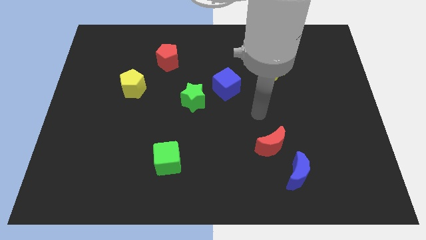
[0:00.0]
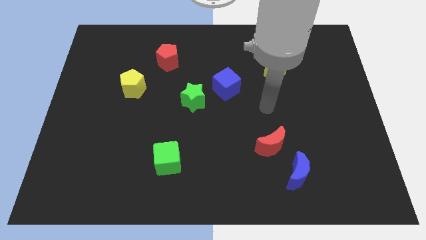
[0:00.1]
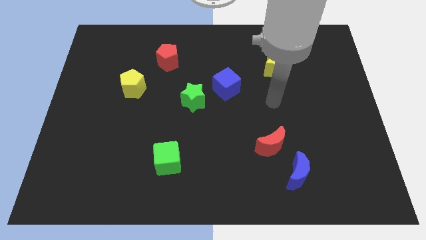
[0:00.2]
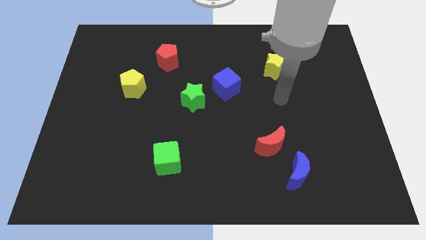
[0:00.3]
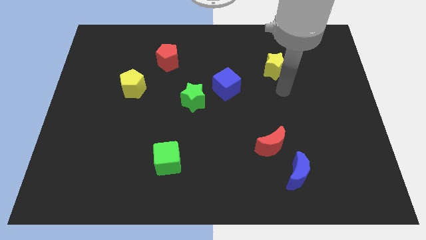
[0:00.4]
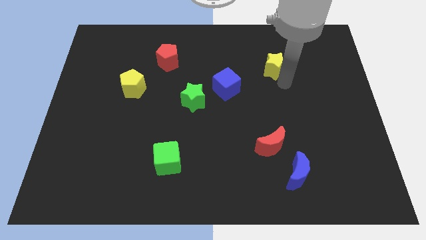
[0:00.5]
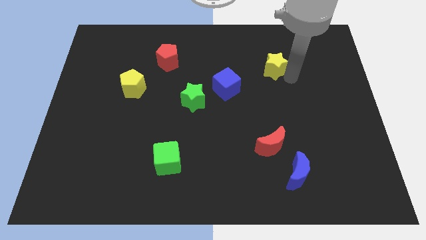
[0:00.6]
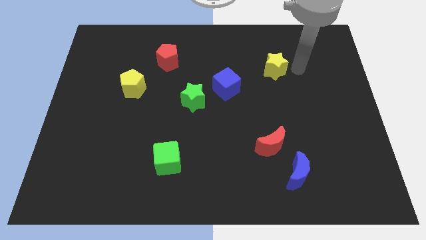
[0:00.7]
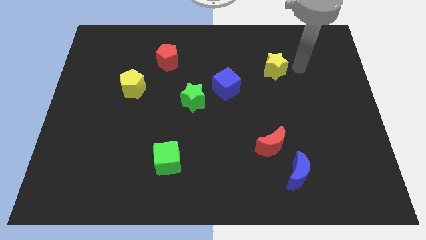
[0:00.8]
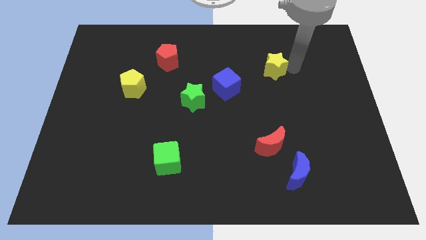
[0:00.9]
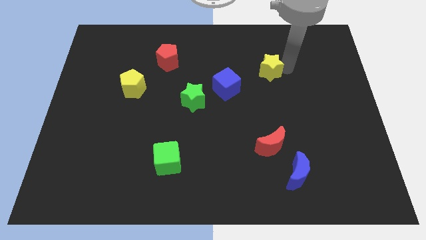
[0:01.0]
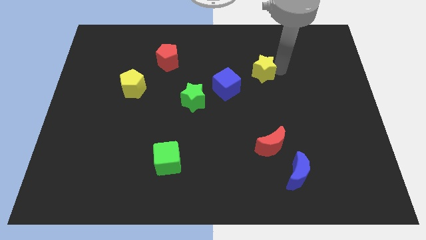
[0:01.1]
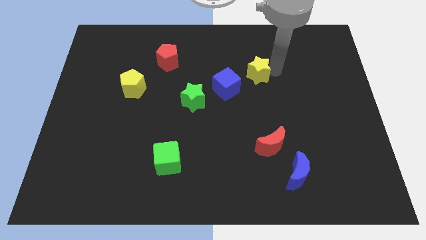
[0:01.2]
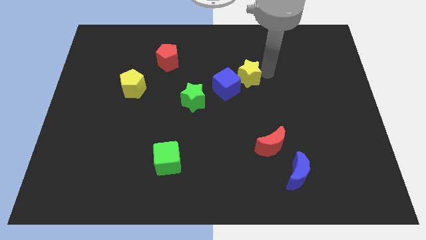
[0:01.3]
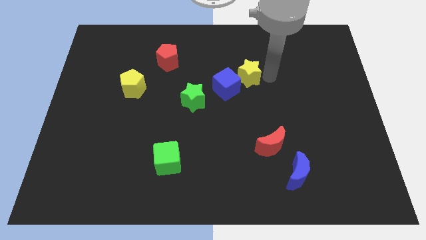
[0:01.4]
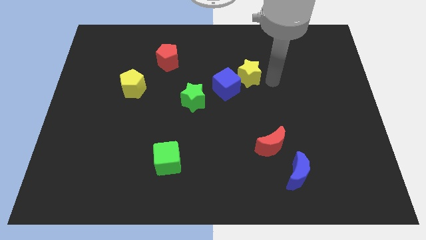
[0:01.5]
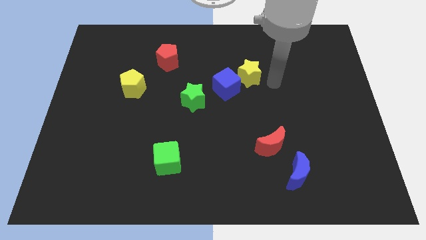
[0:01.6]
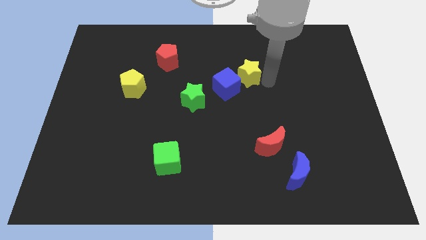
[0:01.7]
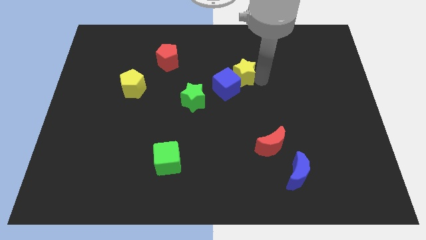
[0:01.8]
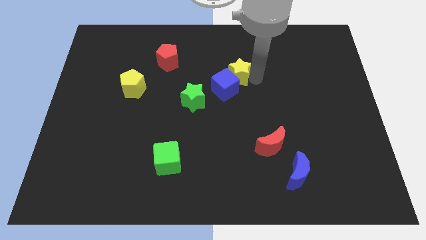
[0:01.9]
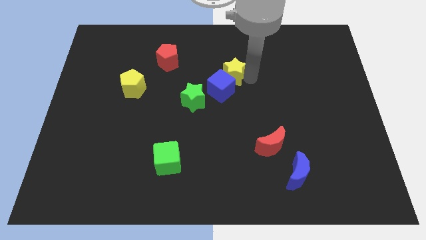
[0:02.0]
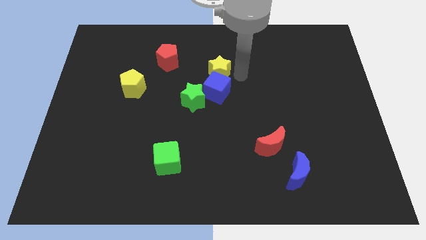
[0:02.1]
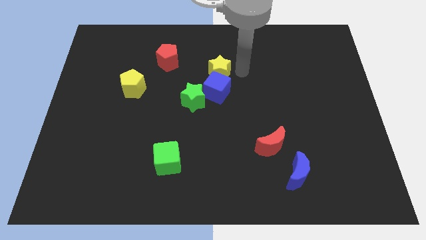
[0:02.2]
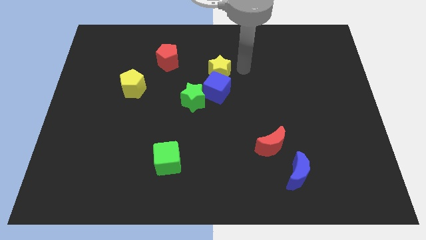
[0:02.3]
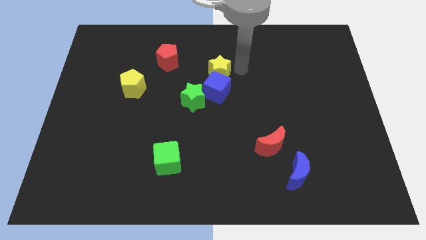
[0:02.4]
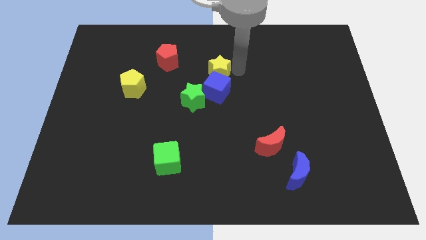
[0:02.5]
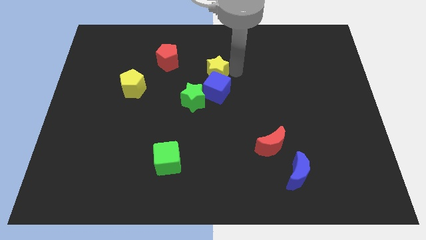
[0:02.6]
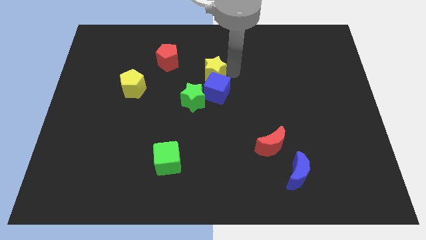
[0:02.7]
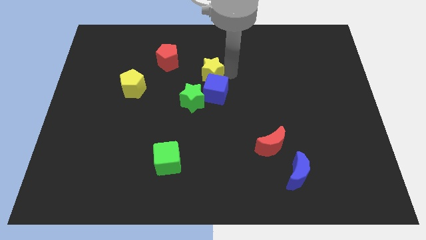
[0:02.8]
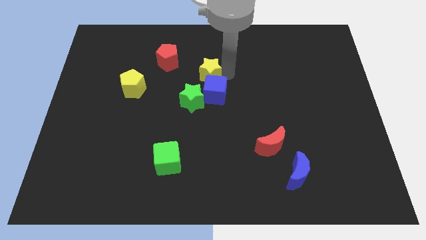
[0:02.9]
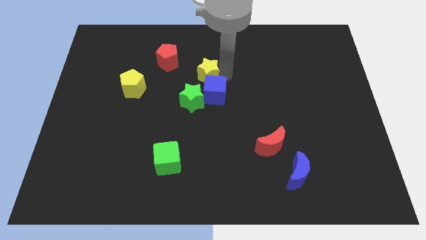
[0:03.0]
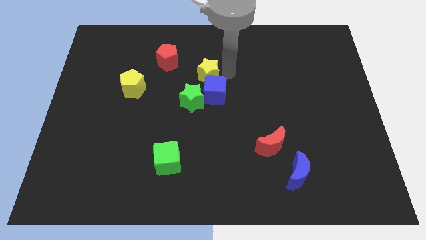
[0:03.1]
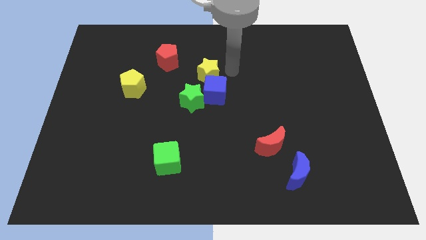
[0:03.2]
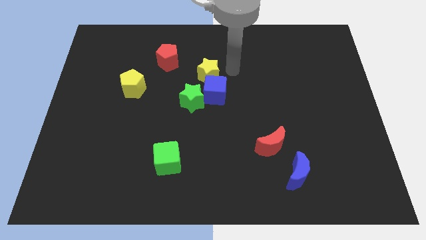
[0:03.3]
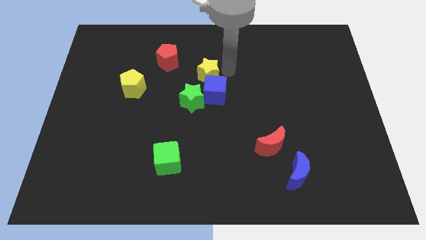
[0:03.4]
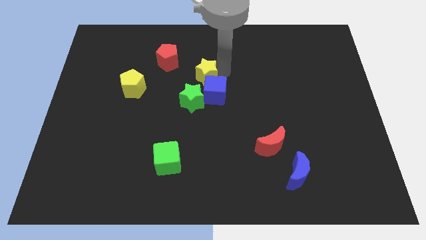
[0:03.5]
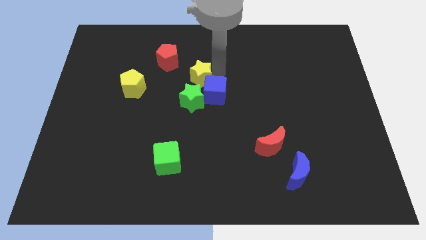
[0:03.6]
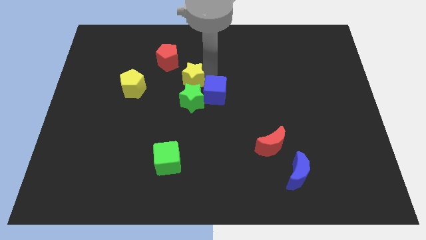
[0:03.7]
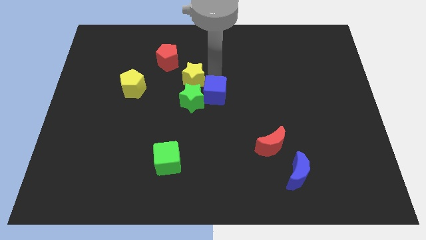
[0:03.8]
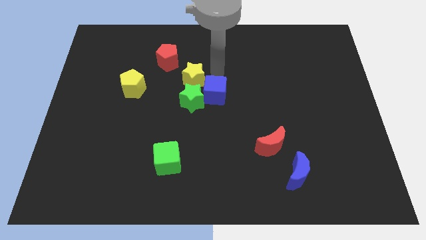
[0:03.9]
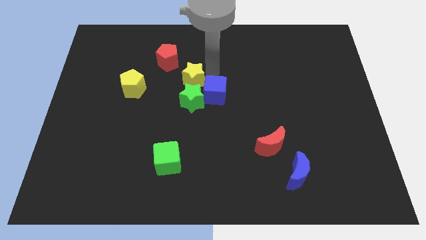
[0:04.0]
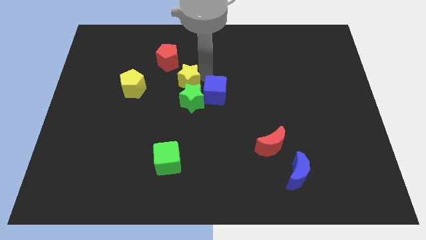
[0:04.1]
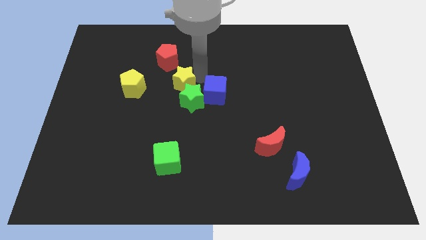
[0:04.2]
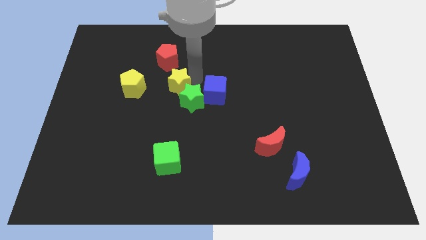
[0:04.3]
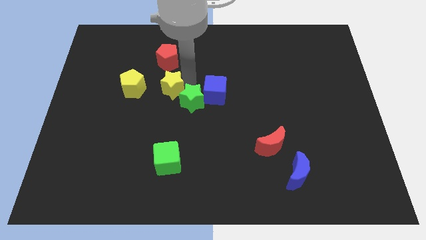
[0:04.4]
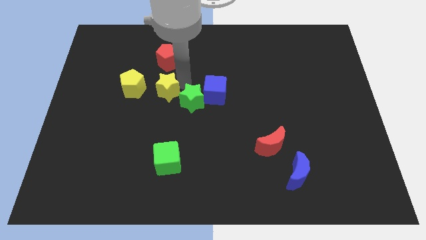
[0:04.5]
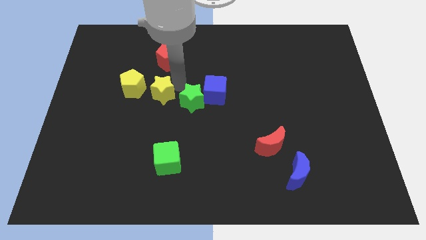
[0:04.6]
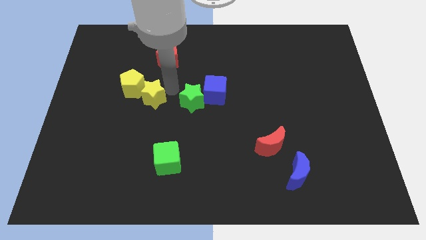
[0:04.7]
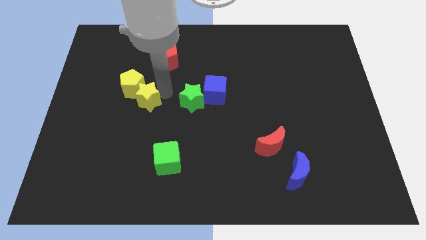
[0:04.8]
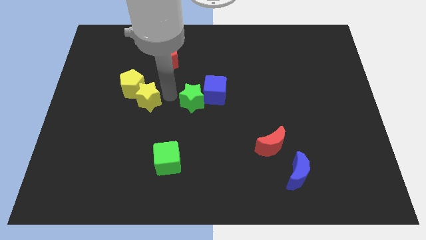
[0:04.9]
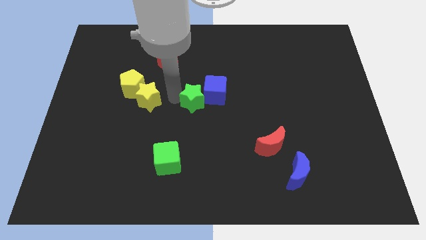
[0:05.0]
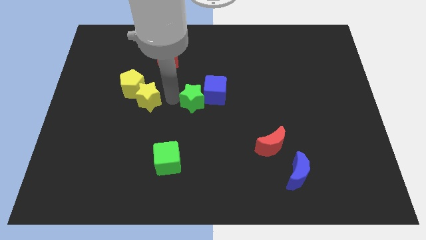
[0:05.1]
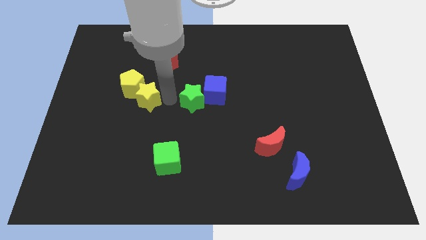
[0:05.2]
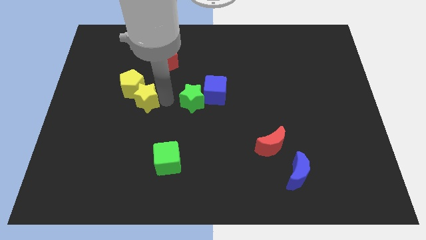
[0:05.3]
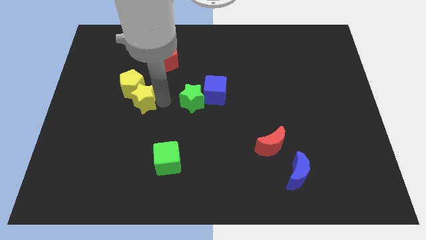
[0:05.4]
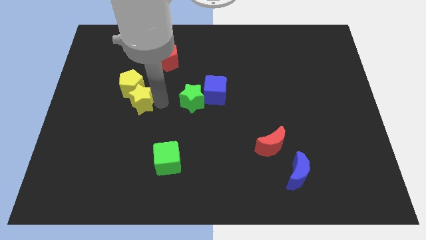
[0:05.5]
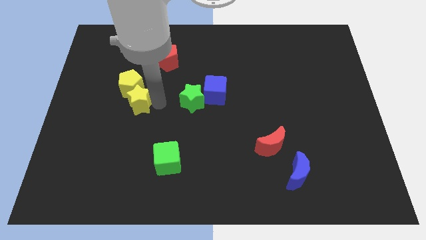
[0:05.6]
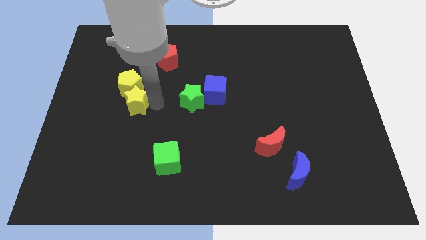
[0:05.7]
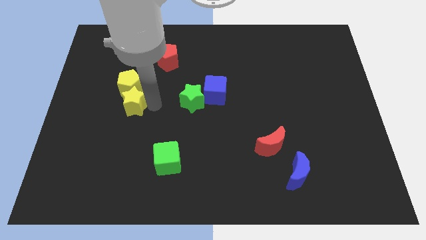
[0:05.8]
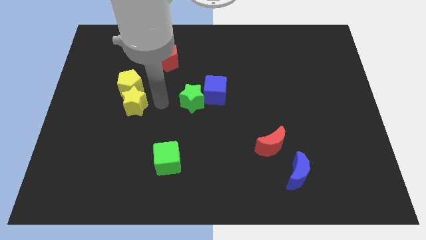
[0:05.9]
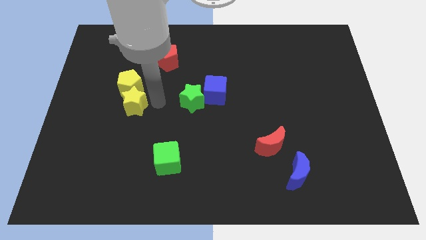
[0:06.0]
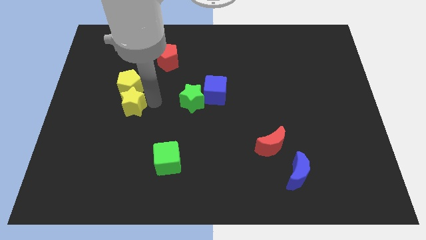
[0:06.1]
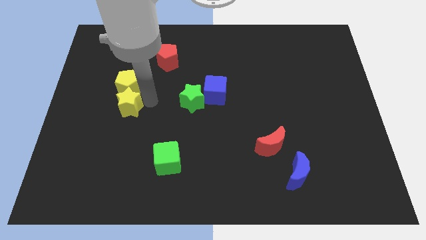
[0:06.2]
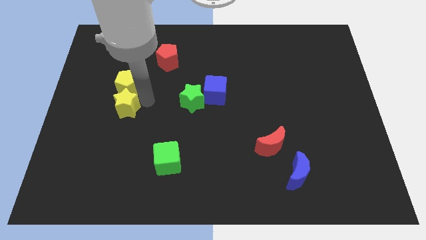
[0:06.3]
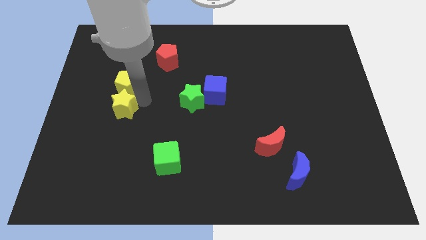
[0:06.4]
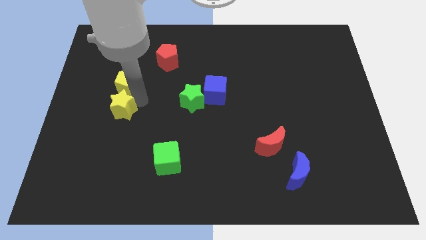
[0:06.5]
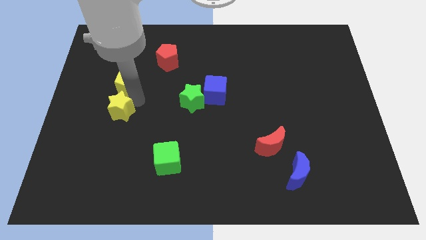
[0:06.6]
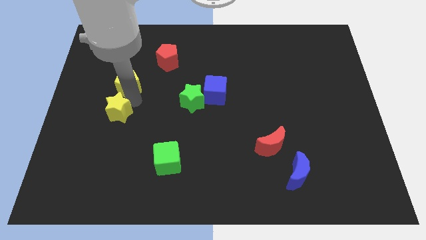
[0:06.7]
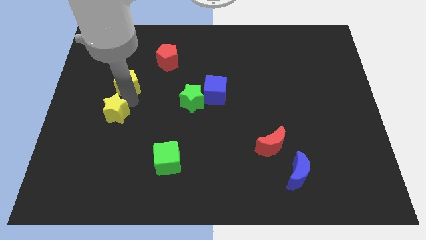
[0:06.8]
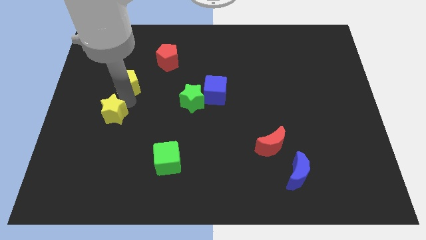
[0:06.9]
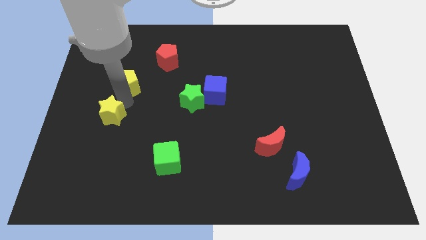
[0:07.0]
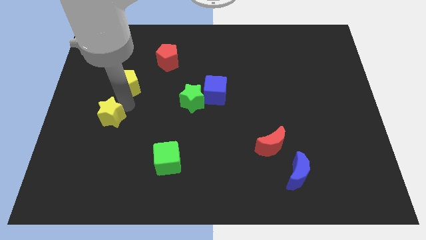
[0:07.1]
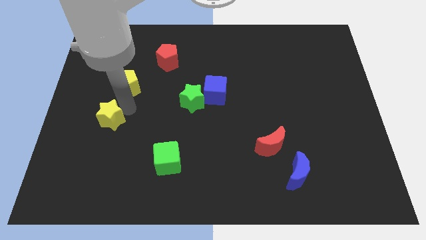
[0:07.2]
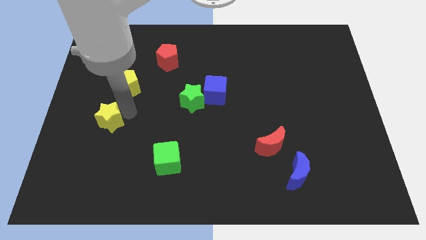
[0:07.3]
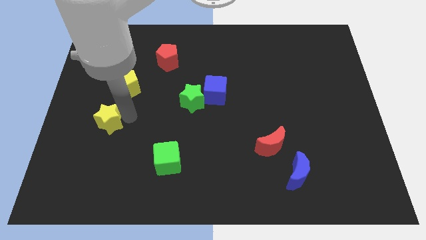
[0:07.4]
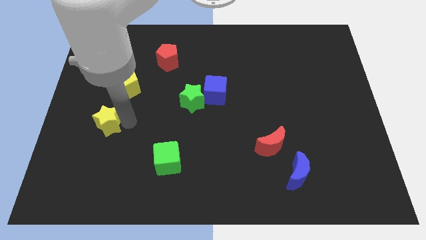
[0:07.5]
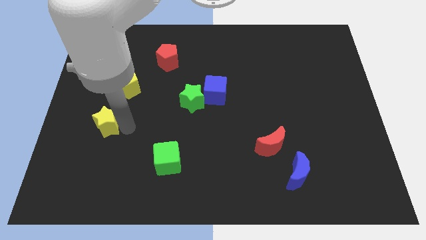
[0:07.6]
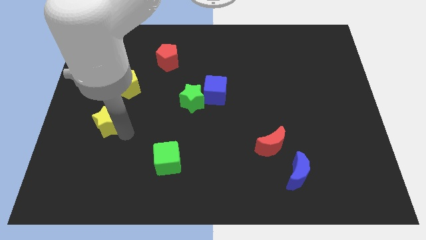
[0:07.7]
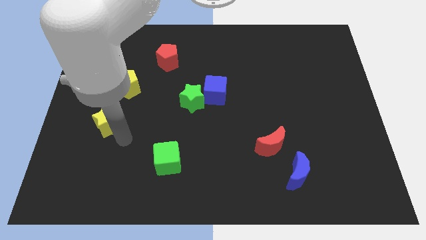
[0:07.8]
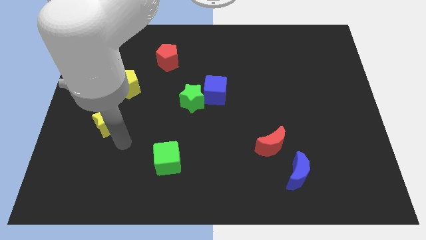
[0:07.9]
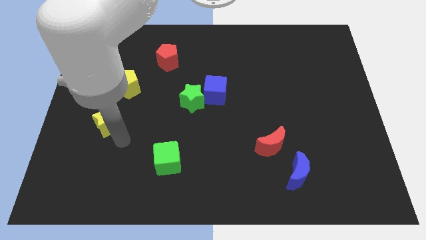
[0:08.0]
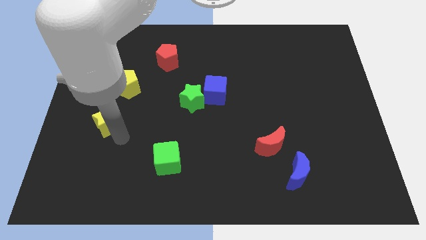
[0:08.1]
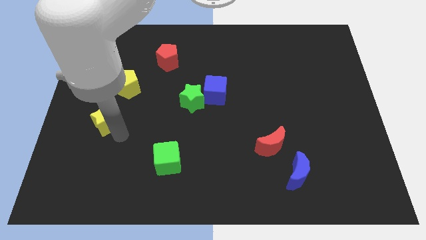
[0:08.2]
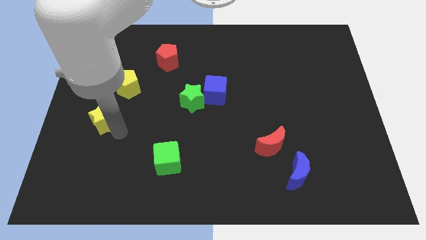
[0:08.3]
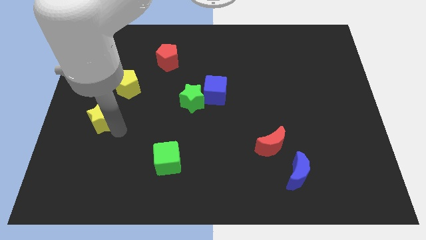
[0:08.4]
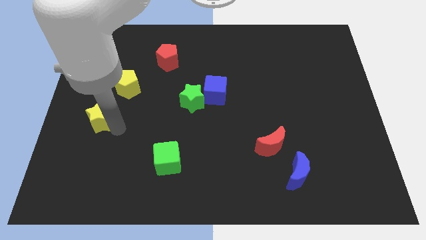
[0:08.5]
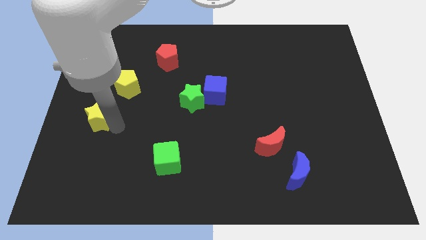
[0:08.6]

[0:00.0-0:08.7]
move the yellow star to the left side
